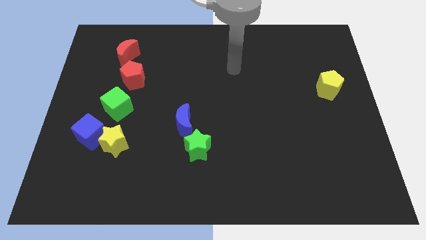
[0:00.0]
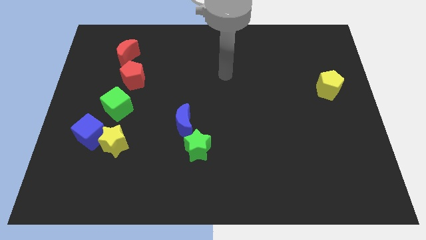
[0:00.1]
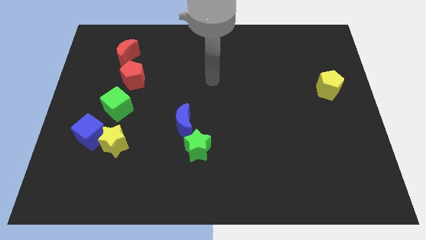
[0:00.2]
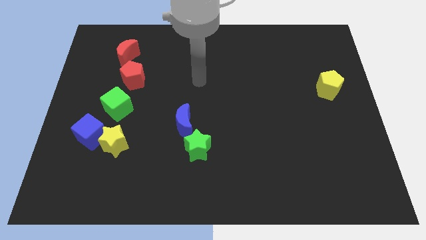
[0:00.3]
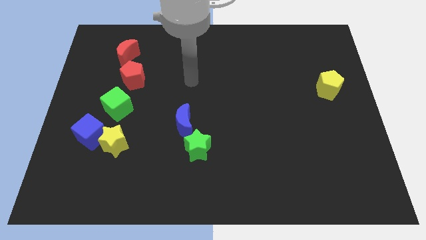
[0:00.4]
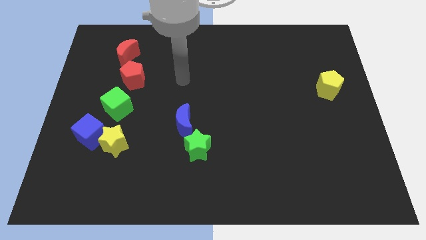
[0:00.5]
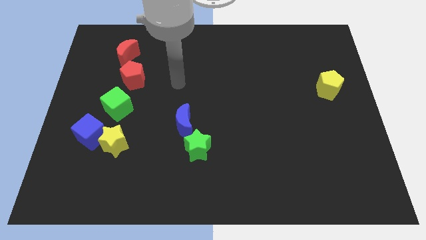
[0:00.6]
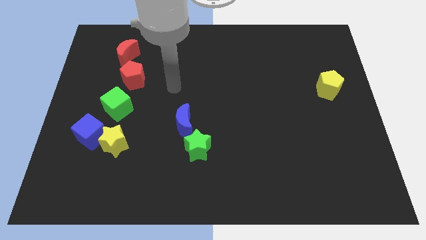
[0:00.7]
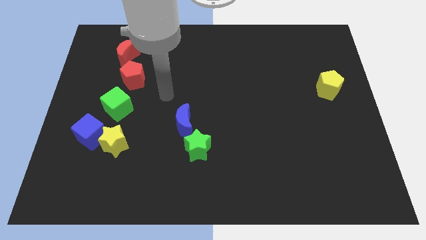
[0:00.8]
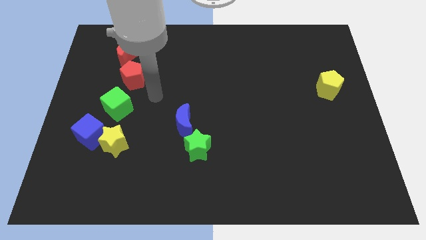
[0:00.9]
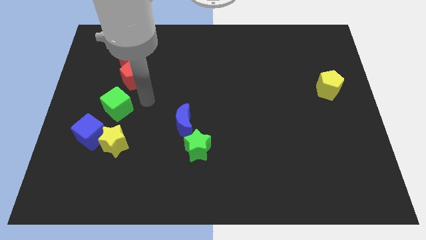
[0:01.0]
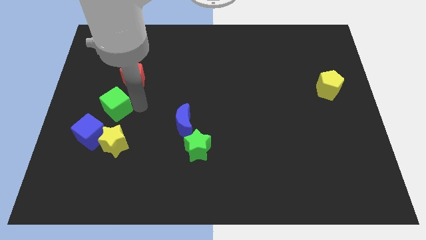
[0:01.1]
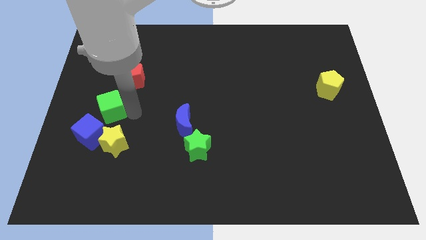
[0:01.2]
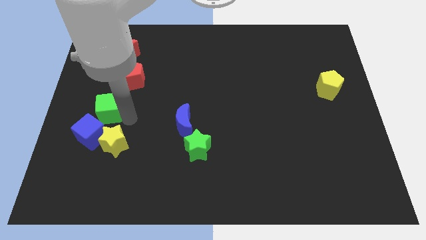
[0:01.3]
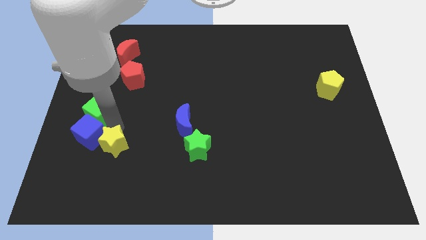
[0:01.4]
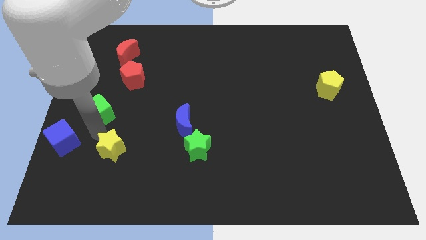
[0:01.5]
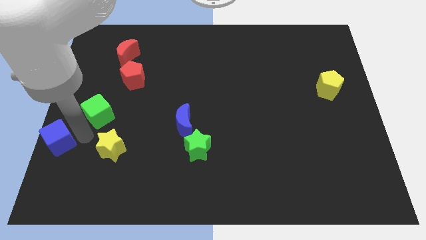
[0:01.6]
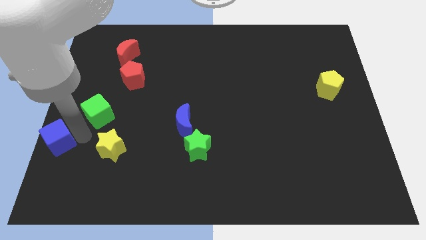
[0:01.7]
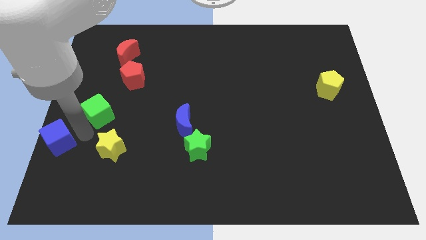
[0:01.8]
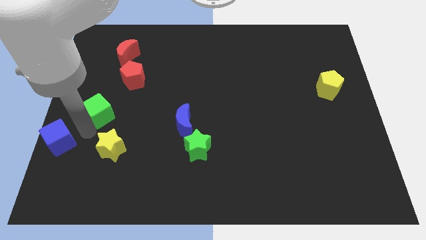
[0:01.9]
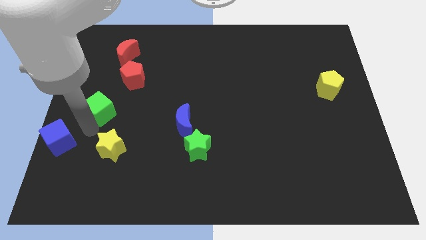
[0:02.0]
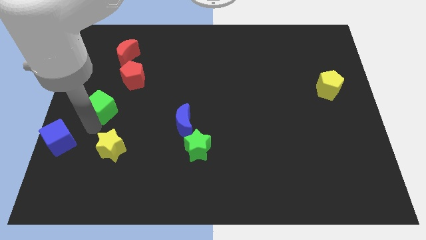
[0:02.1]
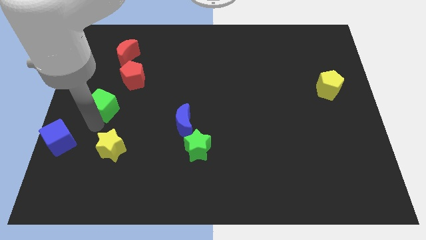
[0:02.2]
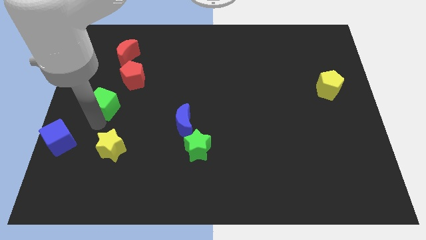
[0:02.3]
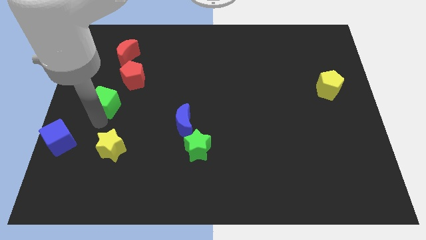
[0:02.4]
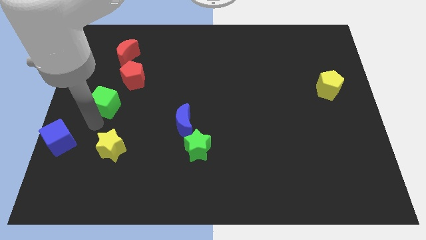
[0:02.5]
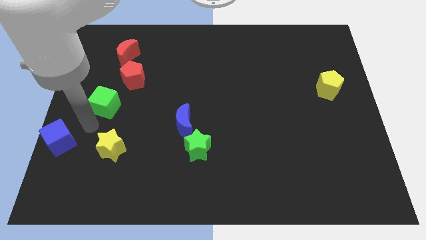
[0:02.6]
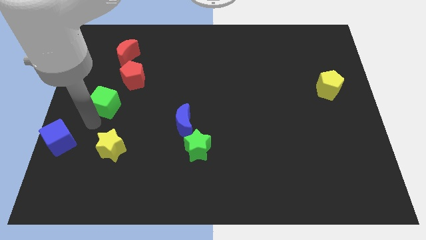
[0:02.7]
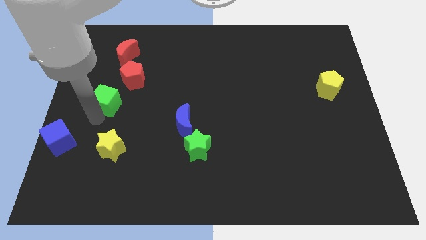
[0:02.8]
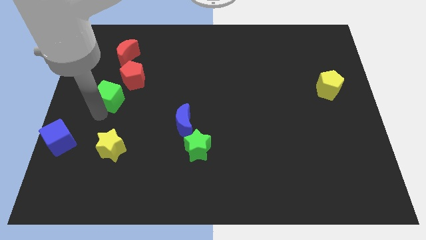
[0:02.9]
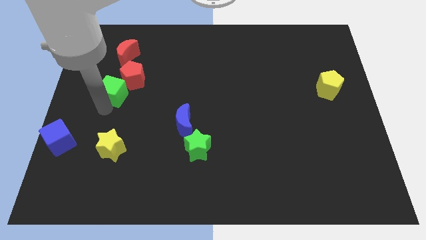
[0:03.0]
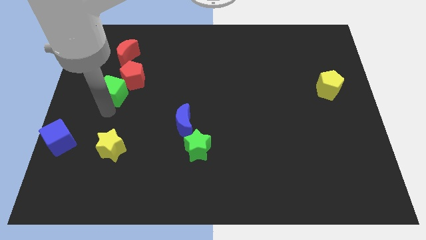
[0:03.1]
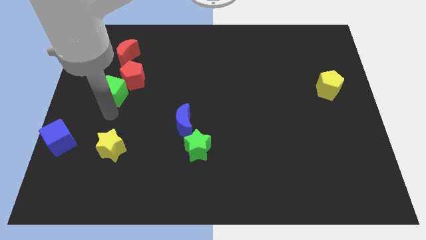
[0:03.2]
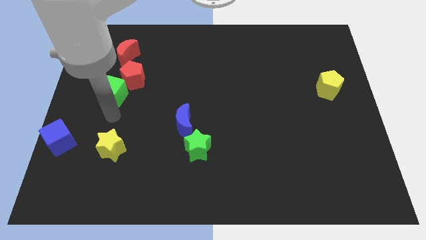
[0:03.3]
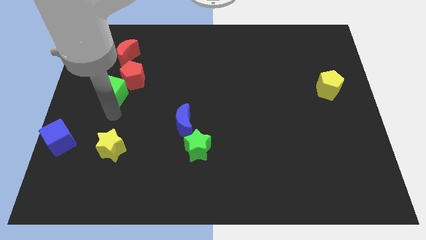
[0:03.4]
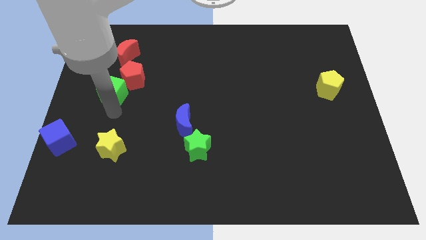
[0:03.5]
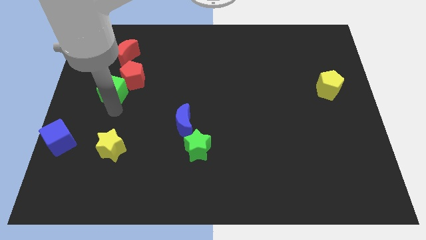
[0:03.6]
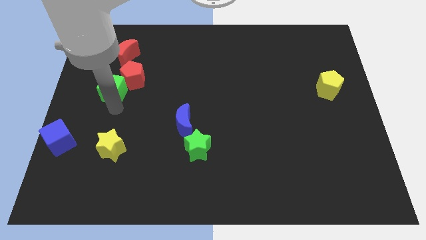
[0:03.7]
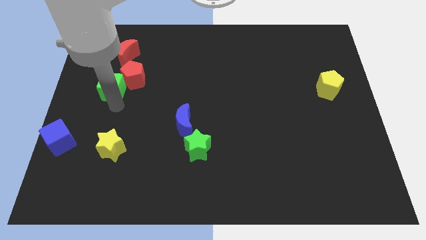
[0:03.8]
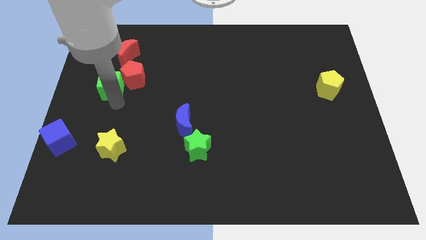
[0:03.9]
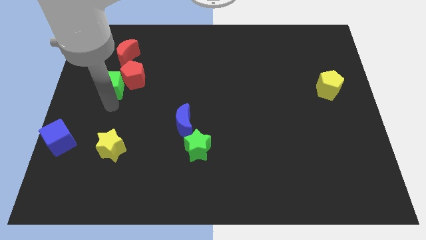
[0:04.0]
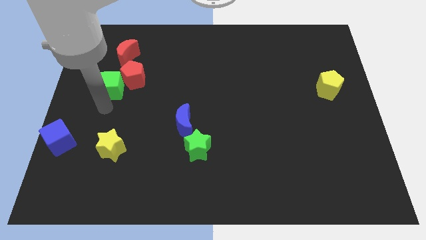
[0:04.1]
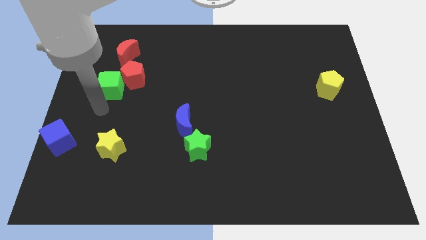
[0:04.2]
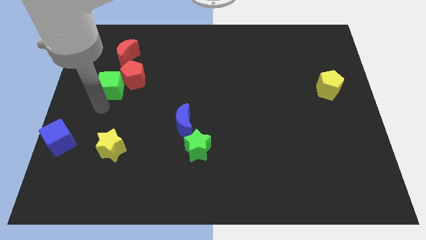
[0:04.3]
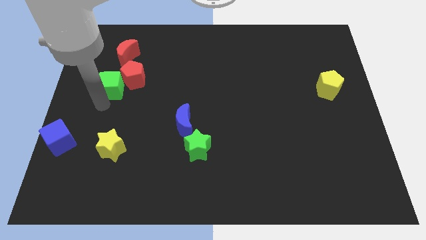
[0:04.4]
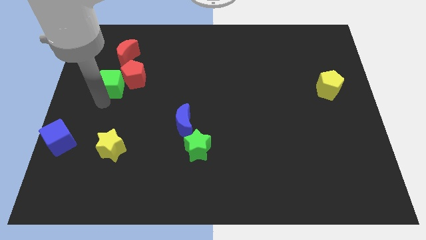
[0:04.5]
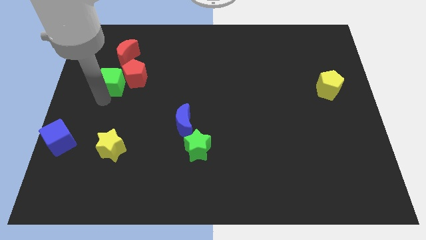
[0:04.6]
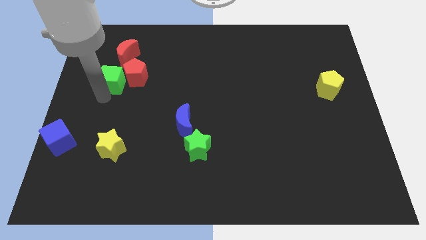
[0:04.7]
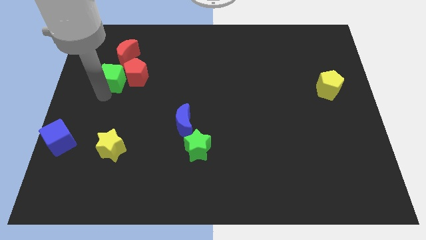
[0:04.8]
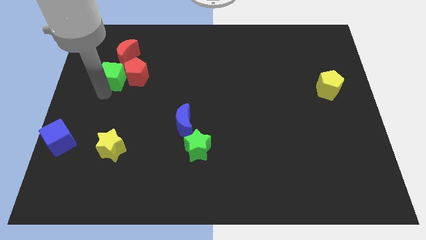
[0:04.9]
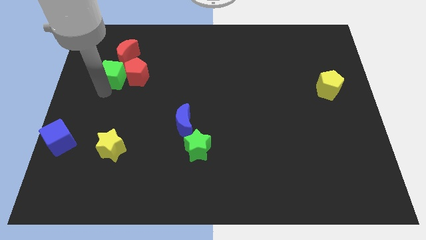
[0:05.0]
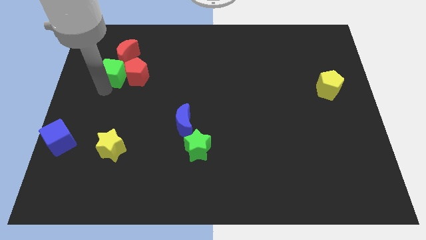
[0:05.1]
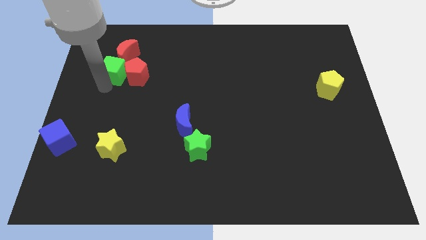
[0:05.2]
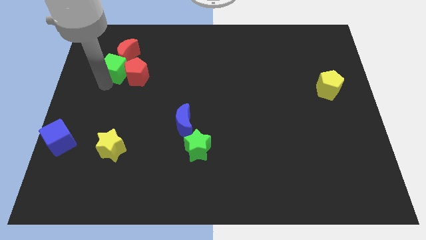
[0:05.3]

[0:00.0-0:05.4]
move the green cube to the red moon

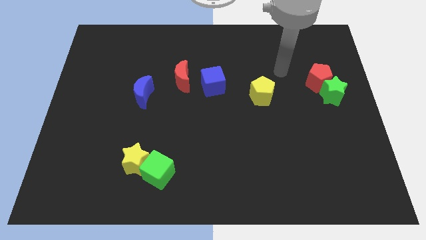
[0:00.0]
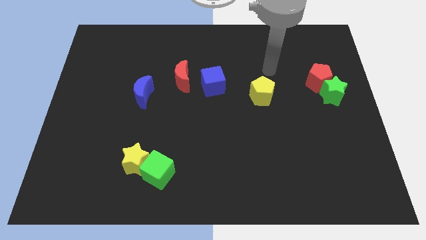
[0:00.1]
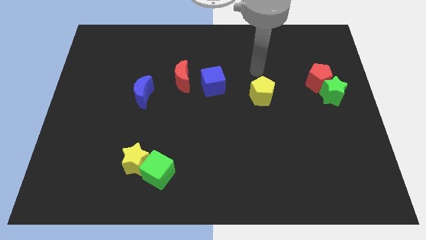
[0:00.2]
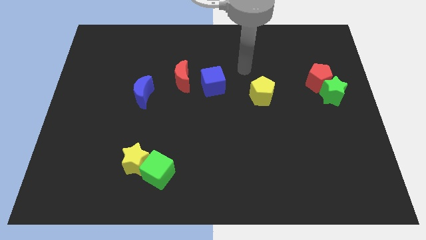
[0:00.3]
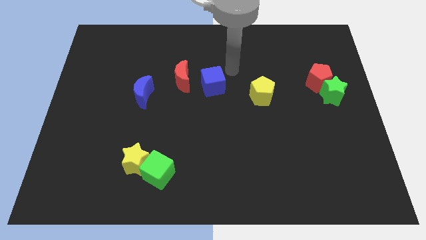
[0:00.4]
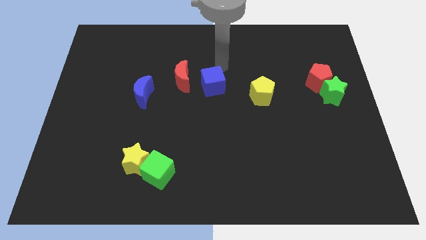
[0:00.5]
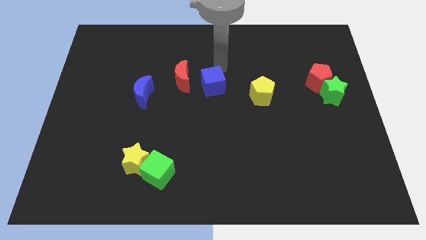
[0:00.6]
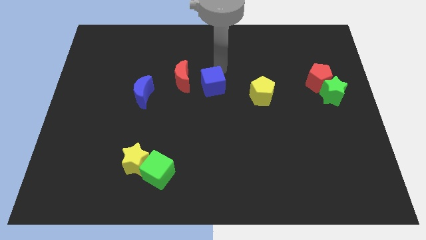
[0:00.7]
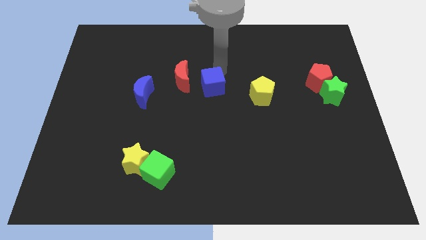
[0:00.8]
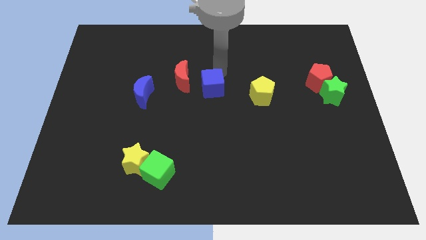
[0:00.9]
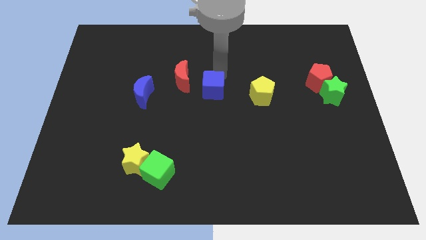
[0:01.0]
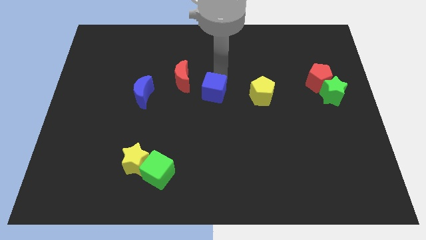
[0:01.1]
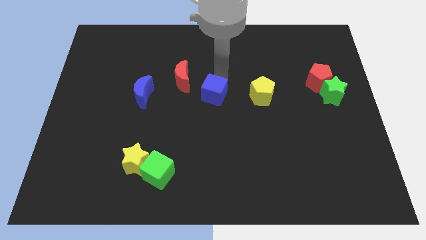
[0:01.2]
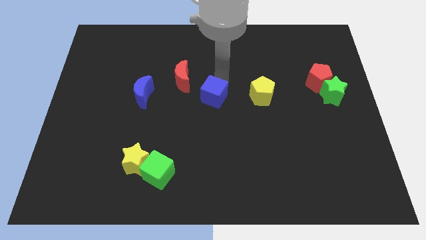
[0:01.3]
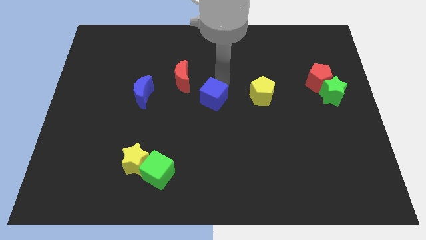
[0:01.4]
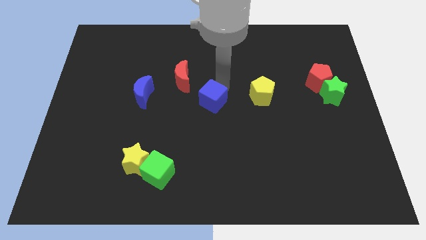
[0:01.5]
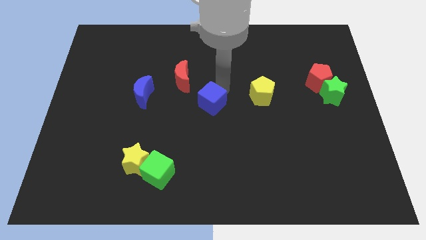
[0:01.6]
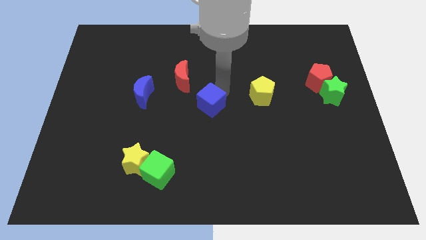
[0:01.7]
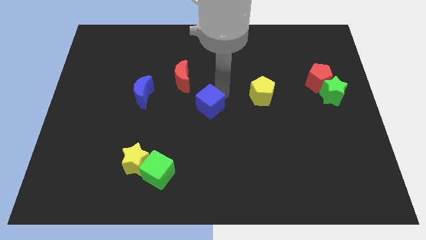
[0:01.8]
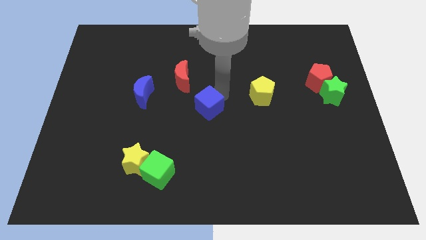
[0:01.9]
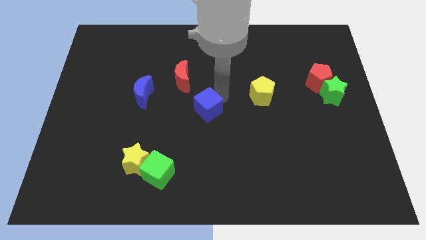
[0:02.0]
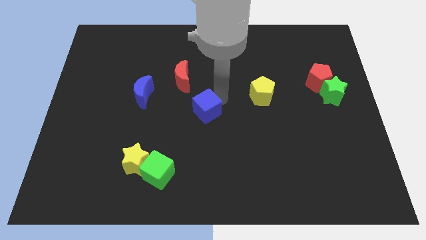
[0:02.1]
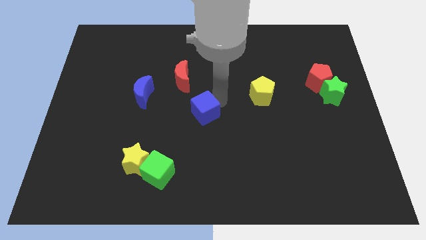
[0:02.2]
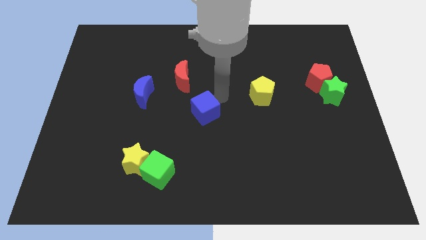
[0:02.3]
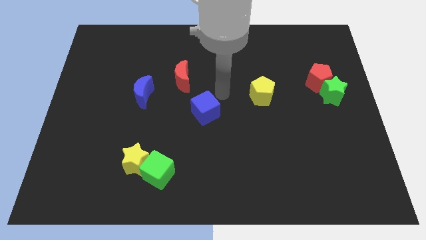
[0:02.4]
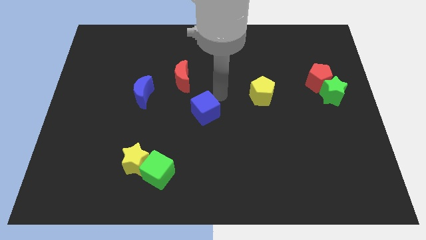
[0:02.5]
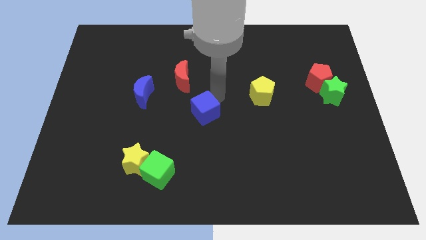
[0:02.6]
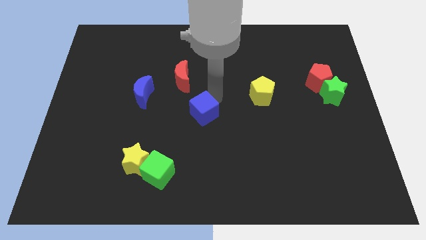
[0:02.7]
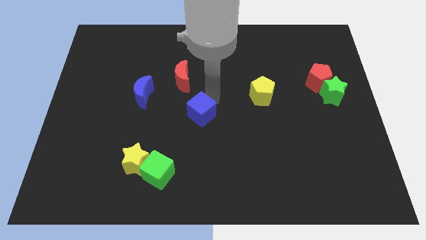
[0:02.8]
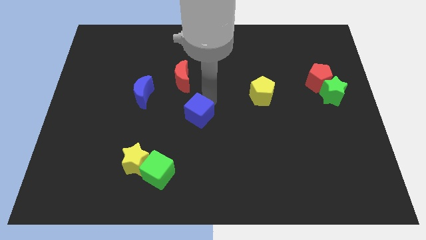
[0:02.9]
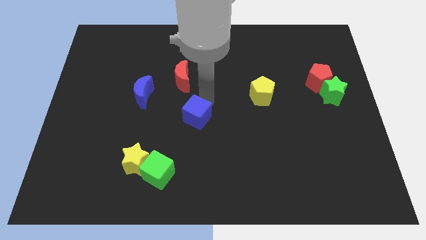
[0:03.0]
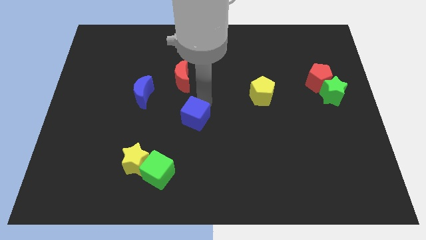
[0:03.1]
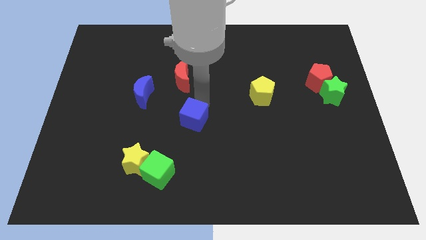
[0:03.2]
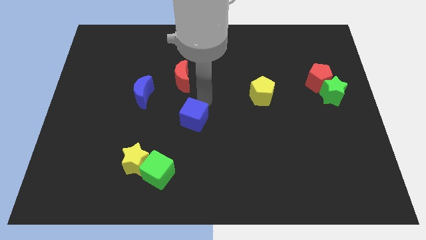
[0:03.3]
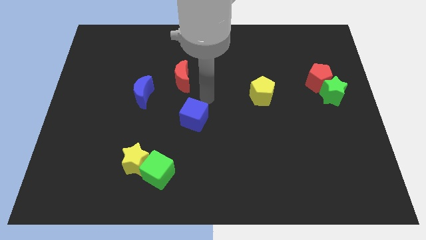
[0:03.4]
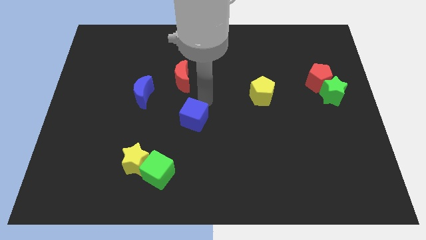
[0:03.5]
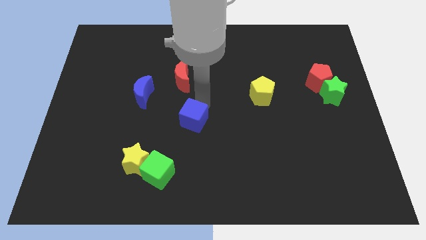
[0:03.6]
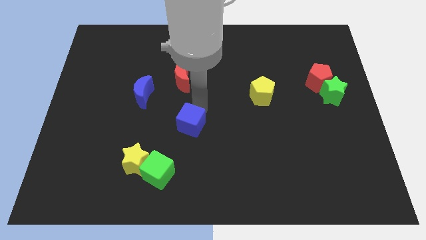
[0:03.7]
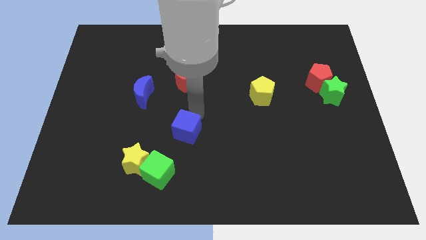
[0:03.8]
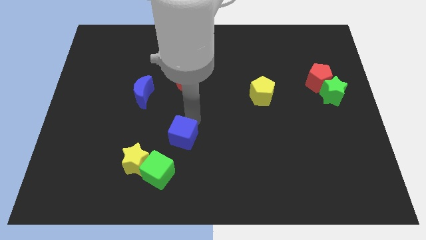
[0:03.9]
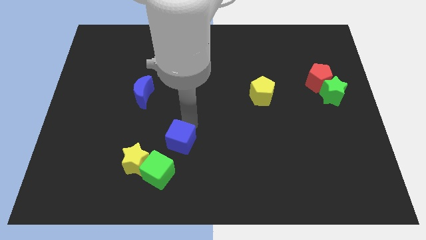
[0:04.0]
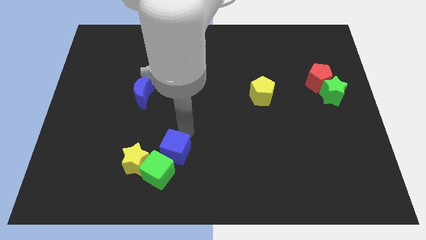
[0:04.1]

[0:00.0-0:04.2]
put the blue cube towards the green cube
